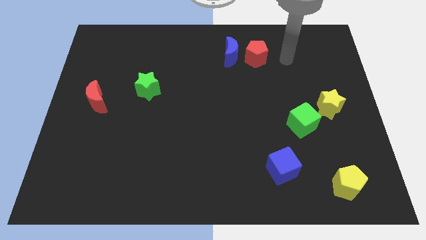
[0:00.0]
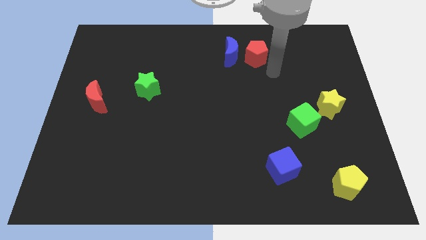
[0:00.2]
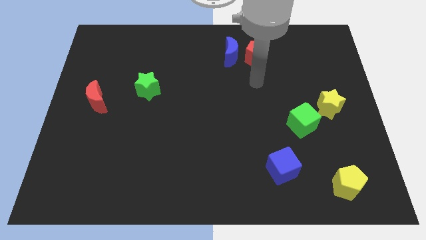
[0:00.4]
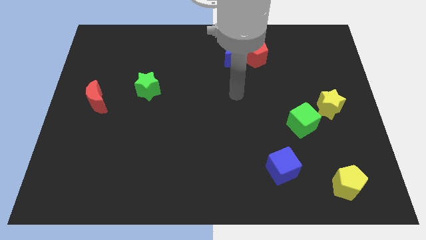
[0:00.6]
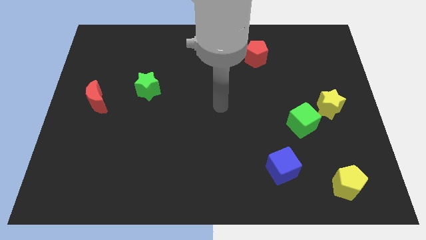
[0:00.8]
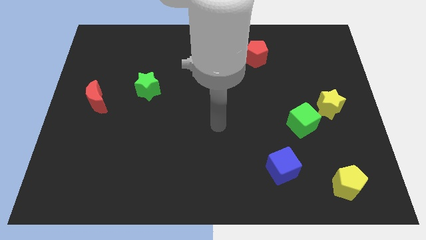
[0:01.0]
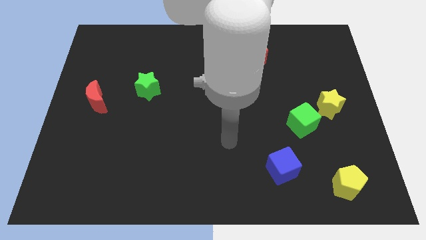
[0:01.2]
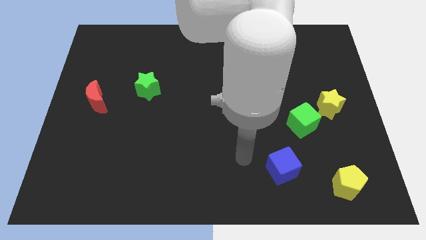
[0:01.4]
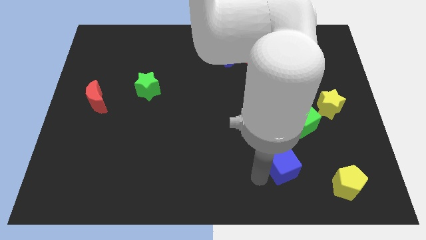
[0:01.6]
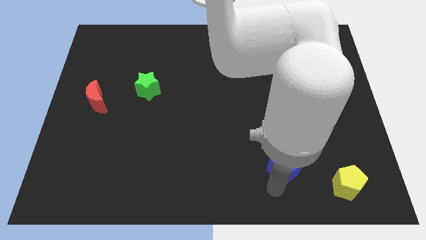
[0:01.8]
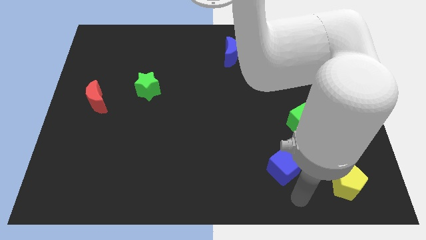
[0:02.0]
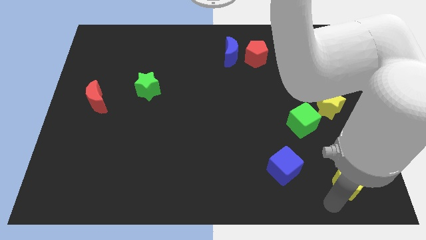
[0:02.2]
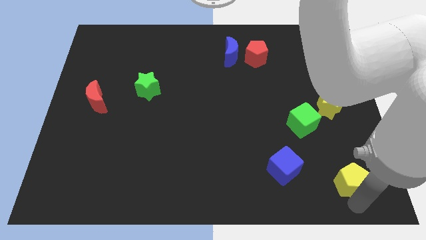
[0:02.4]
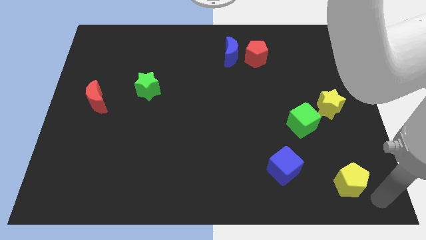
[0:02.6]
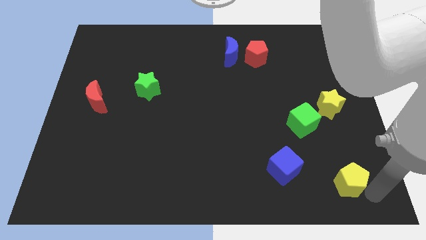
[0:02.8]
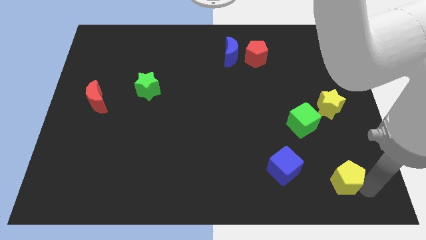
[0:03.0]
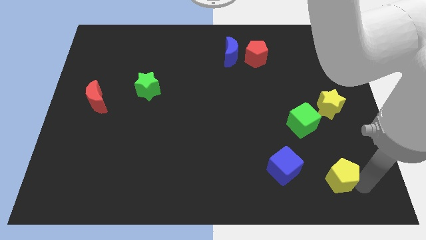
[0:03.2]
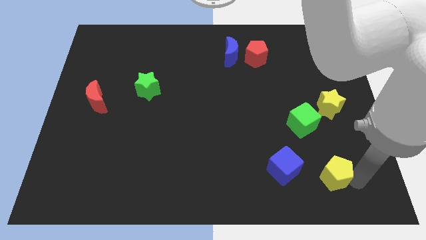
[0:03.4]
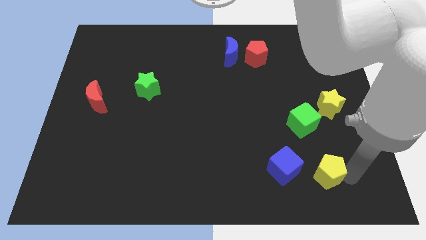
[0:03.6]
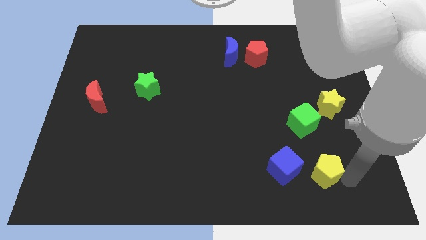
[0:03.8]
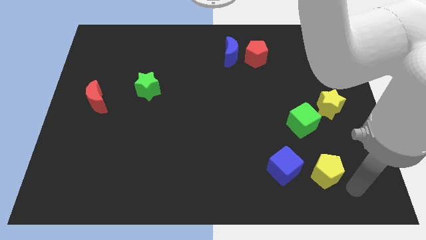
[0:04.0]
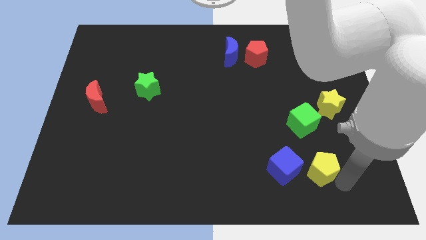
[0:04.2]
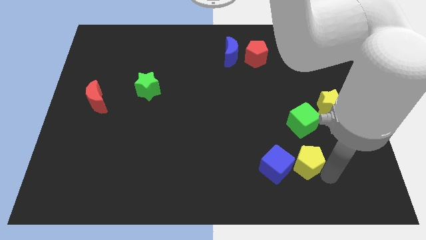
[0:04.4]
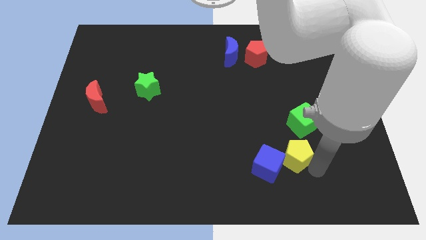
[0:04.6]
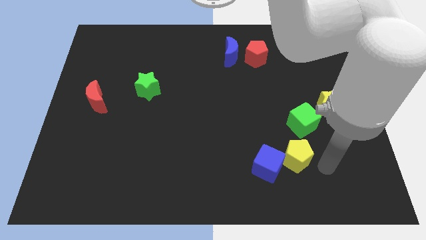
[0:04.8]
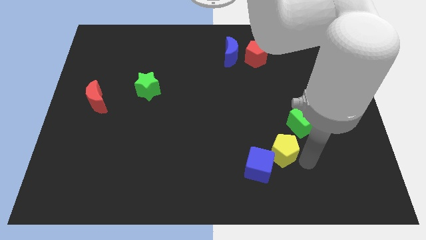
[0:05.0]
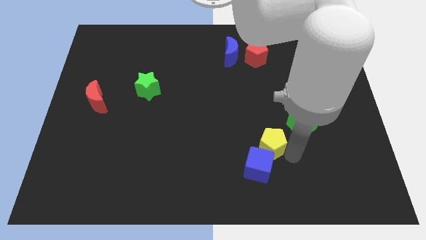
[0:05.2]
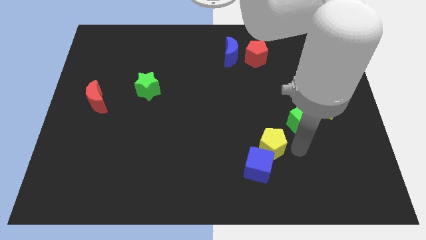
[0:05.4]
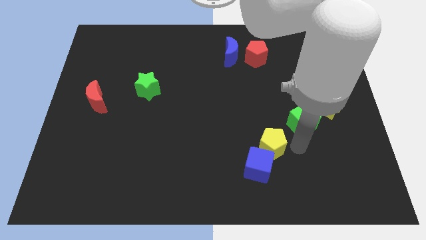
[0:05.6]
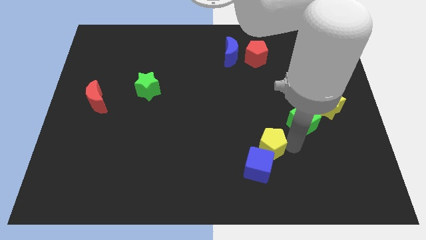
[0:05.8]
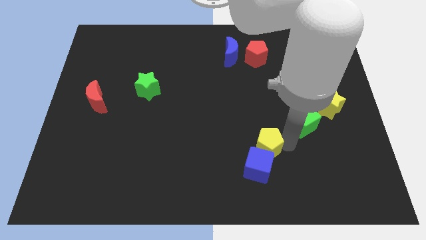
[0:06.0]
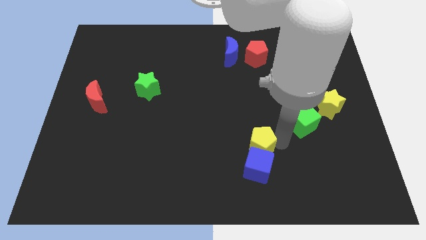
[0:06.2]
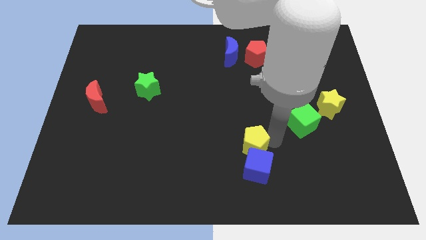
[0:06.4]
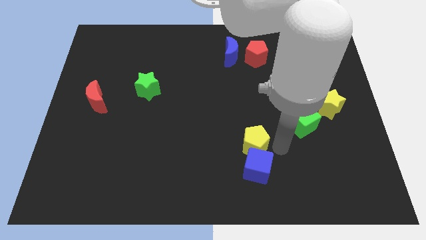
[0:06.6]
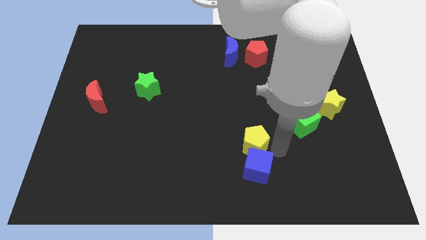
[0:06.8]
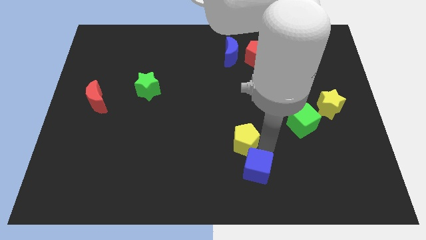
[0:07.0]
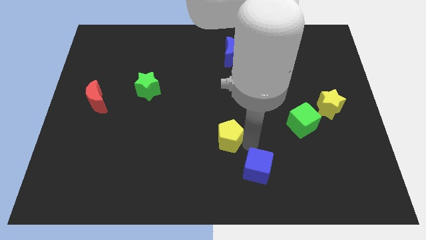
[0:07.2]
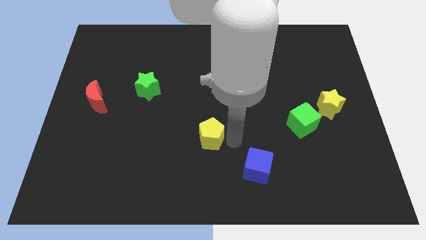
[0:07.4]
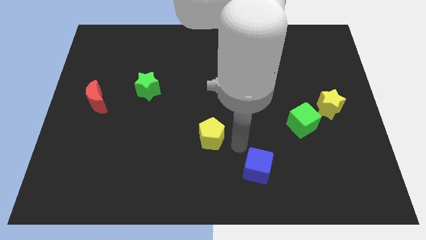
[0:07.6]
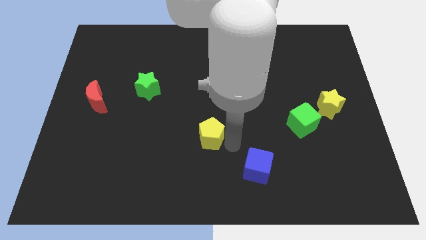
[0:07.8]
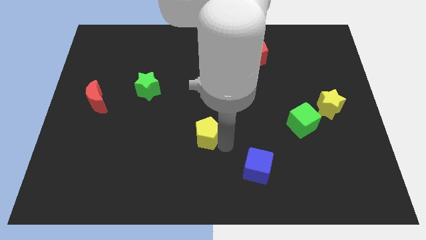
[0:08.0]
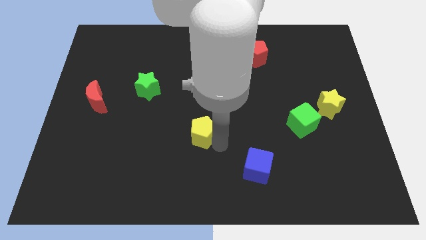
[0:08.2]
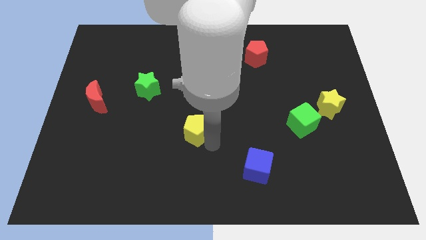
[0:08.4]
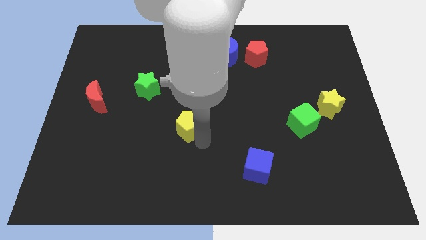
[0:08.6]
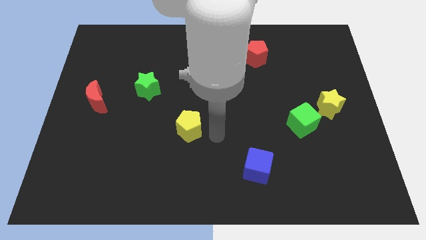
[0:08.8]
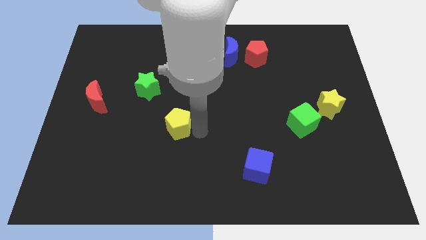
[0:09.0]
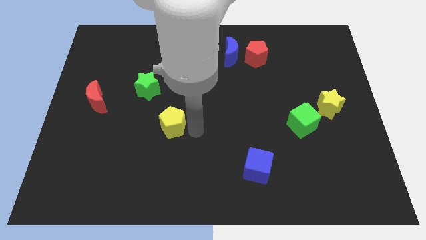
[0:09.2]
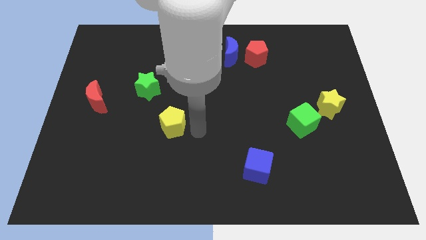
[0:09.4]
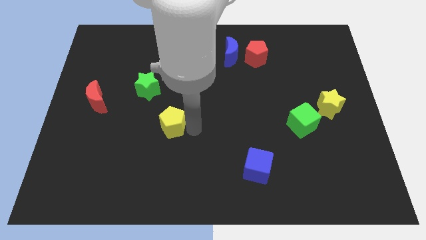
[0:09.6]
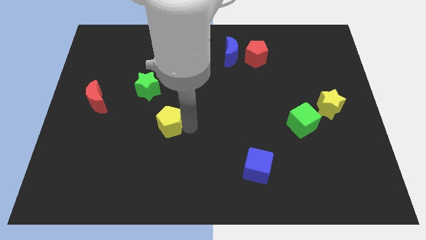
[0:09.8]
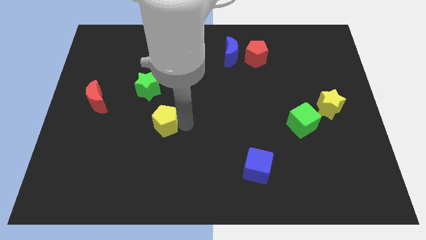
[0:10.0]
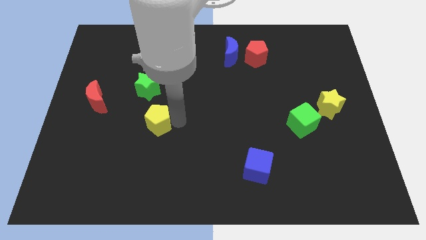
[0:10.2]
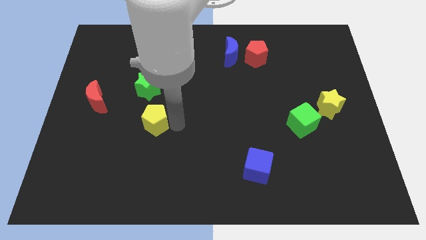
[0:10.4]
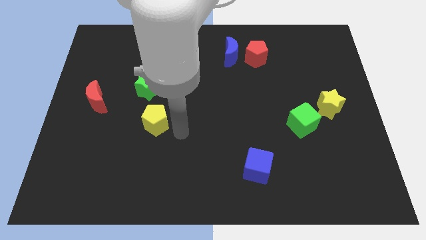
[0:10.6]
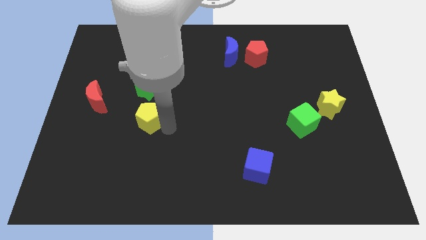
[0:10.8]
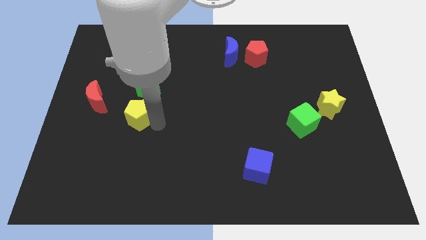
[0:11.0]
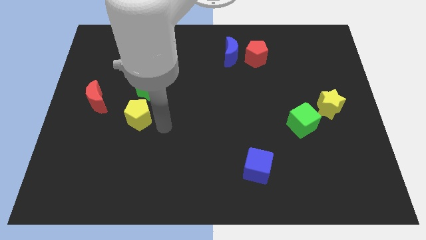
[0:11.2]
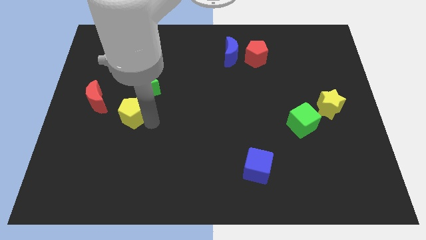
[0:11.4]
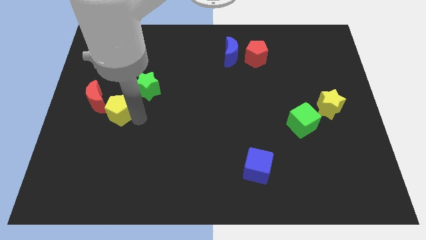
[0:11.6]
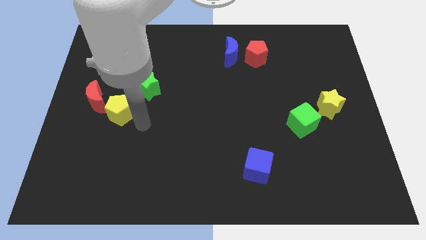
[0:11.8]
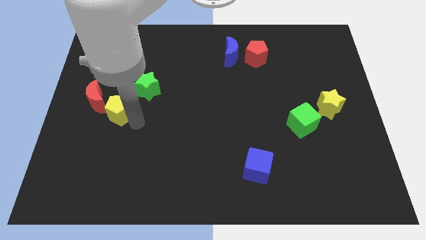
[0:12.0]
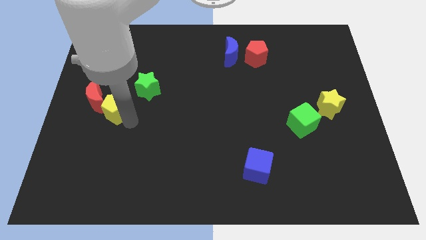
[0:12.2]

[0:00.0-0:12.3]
push the yellow pentagon next to the red moon
